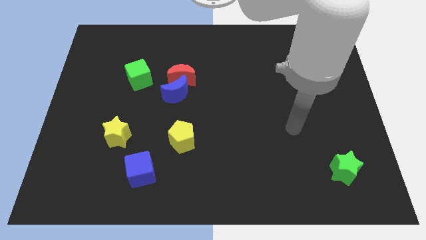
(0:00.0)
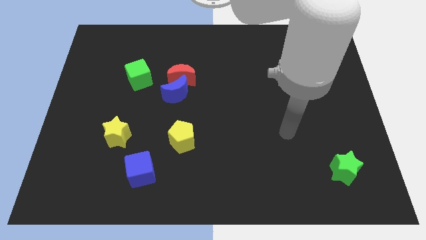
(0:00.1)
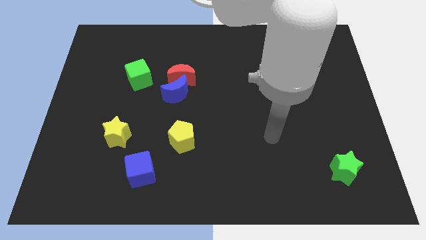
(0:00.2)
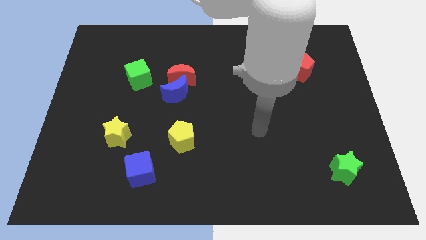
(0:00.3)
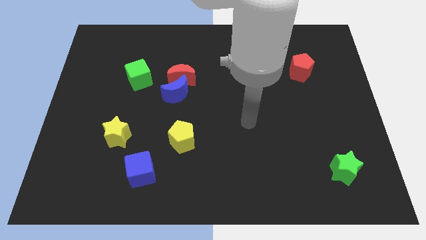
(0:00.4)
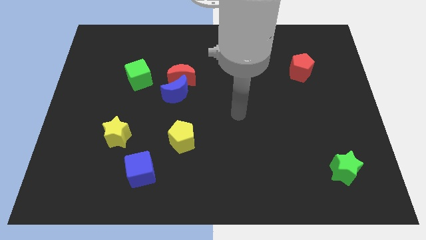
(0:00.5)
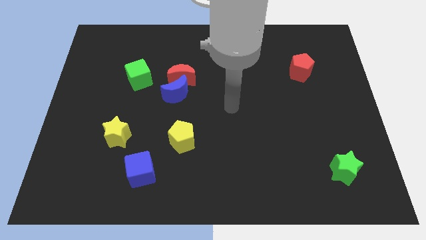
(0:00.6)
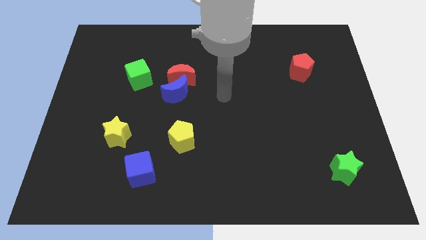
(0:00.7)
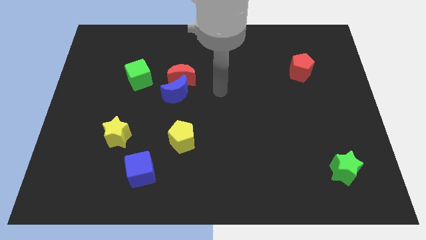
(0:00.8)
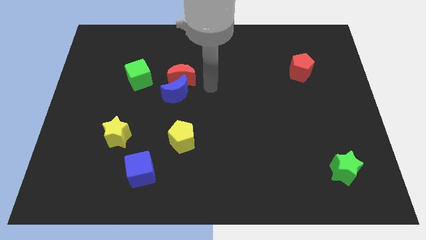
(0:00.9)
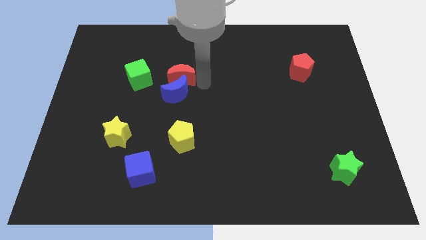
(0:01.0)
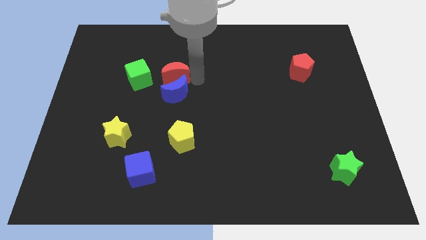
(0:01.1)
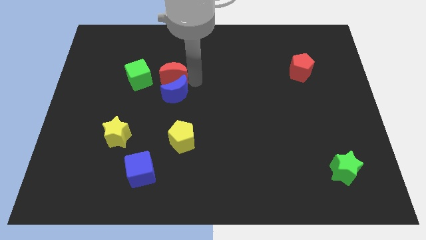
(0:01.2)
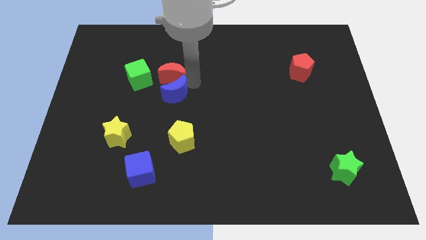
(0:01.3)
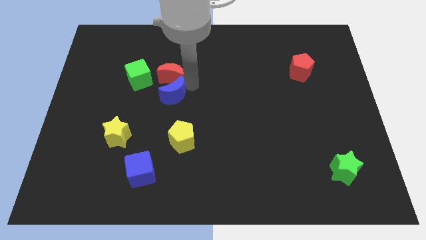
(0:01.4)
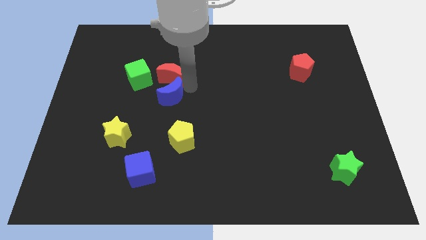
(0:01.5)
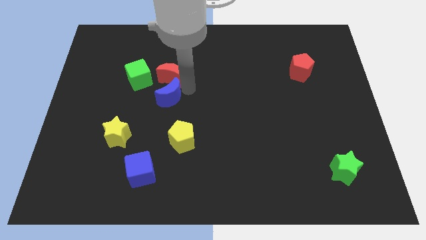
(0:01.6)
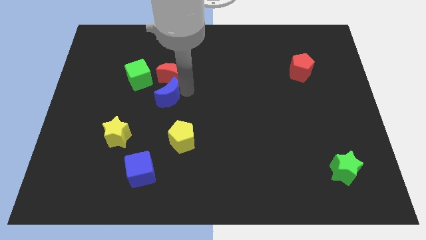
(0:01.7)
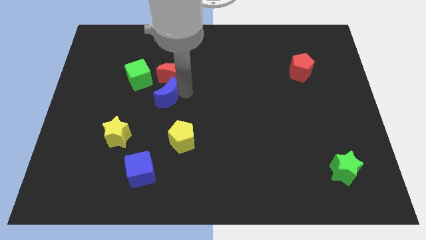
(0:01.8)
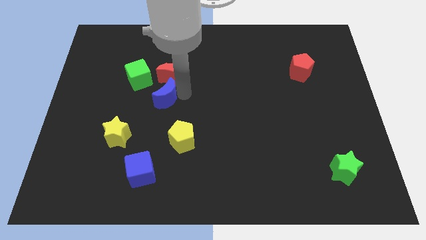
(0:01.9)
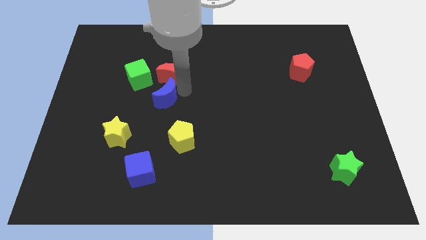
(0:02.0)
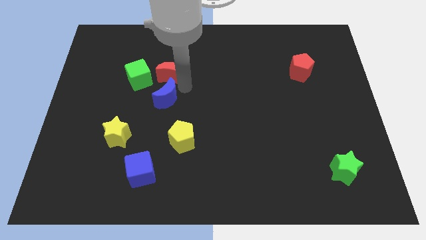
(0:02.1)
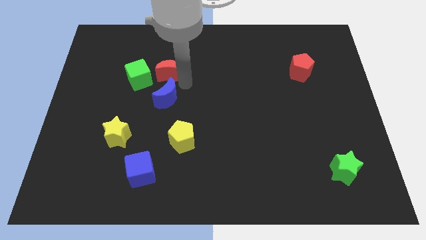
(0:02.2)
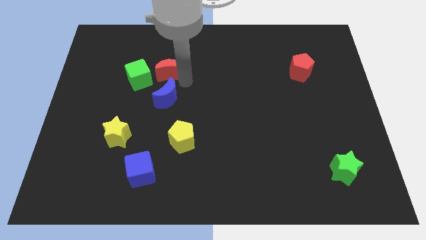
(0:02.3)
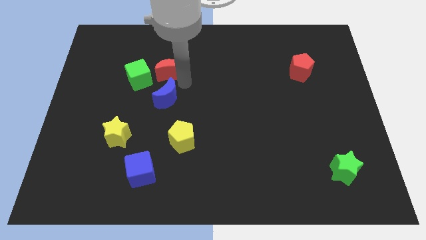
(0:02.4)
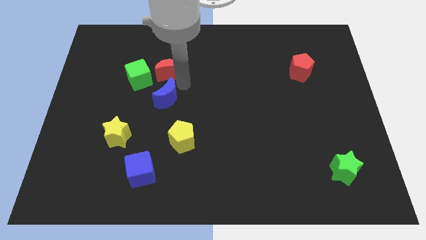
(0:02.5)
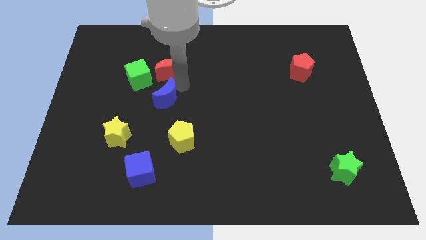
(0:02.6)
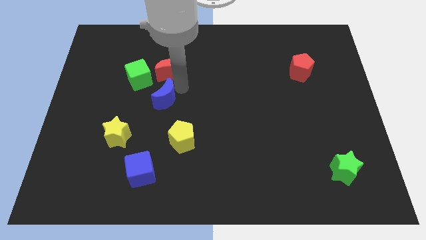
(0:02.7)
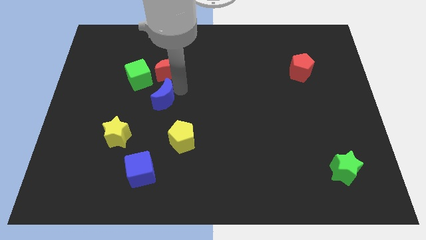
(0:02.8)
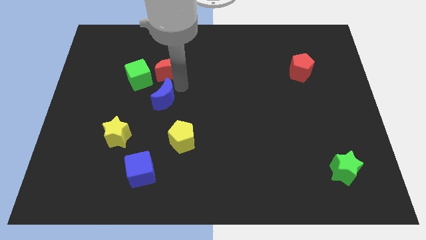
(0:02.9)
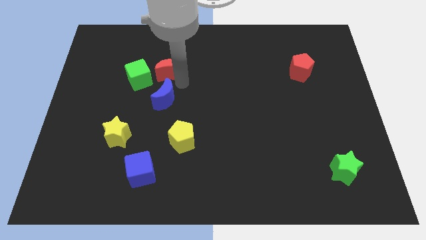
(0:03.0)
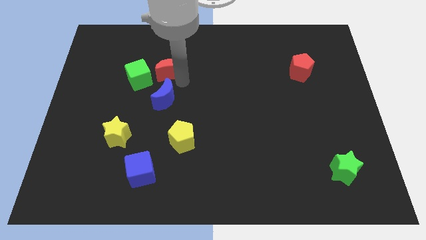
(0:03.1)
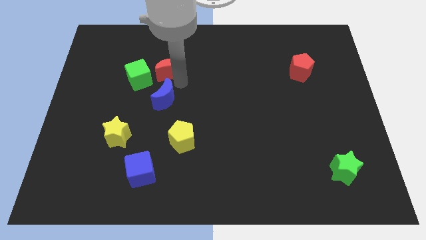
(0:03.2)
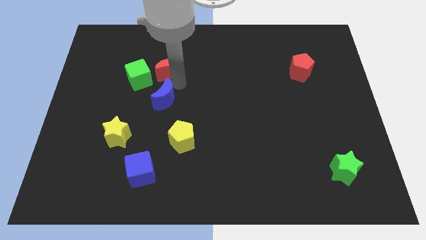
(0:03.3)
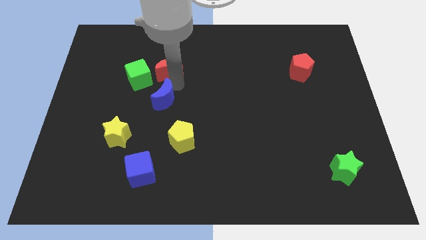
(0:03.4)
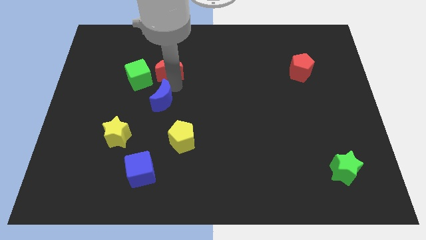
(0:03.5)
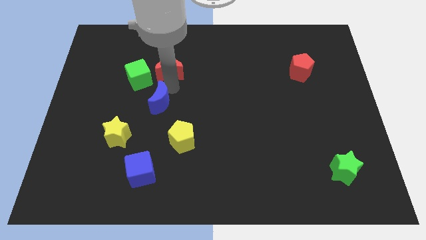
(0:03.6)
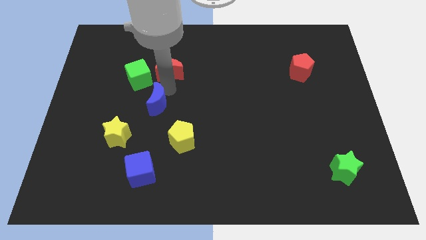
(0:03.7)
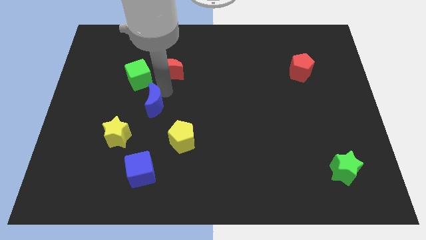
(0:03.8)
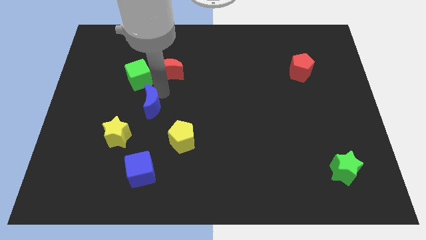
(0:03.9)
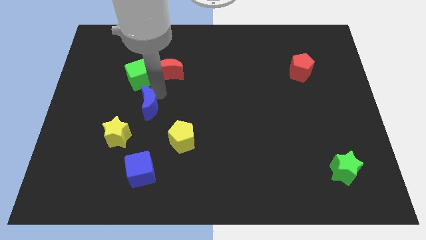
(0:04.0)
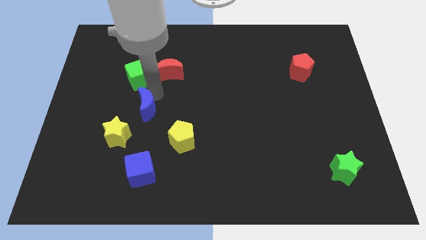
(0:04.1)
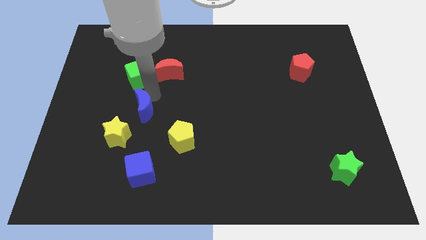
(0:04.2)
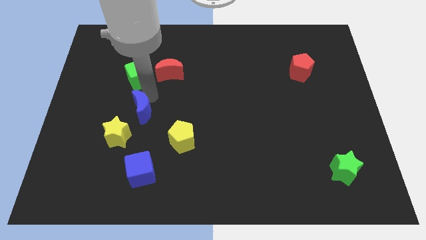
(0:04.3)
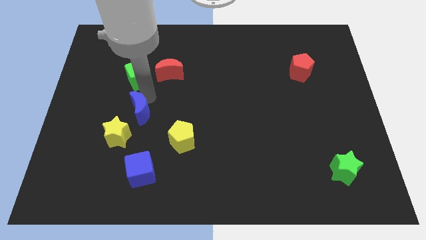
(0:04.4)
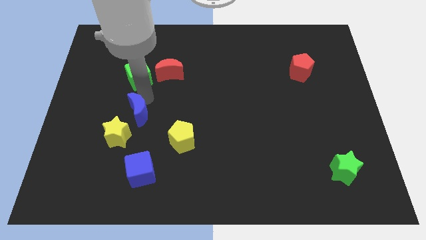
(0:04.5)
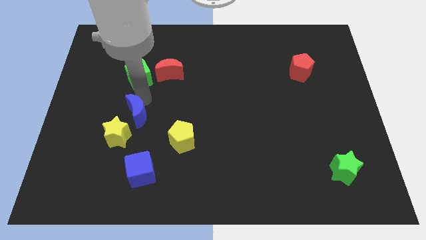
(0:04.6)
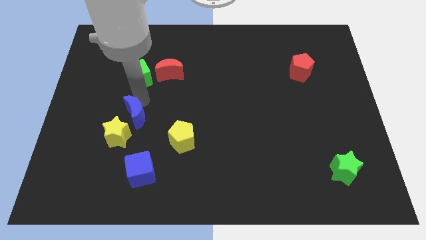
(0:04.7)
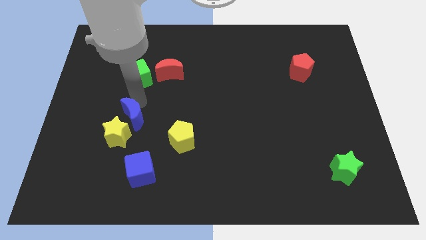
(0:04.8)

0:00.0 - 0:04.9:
put the blue moon close to the yellow star

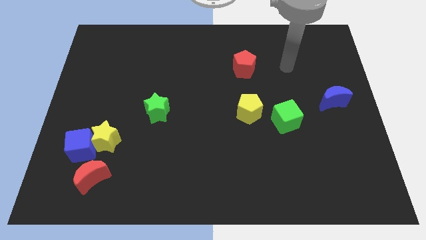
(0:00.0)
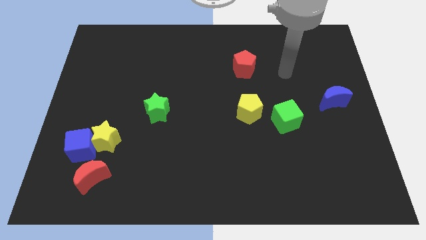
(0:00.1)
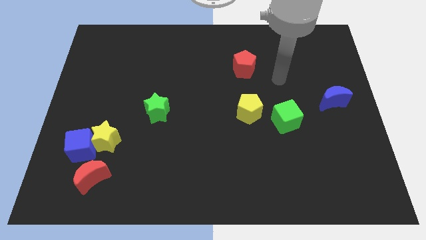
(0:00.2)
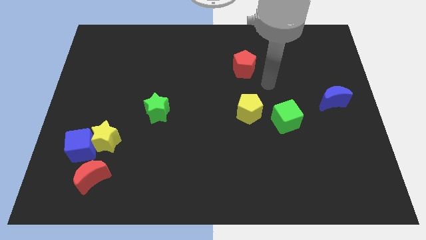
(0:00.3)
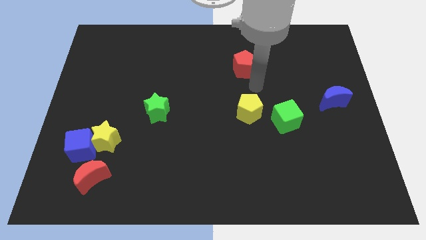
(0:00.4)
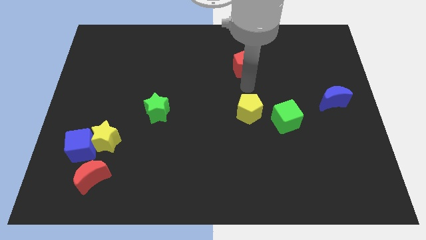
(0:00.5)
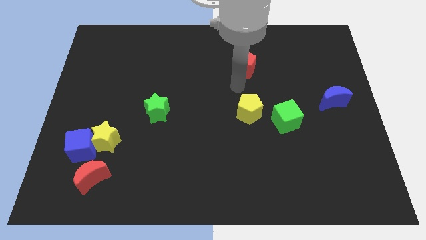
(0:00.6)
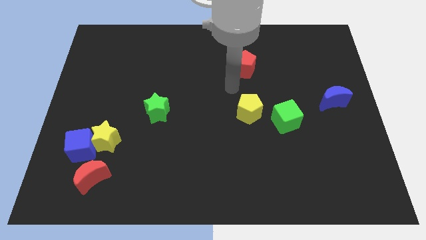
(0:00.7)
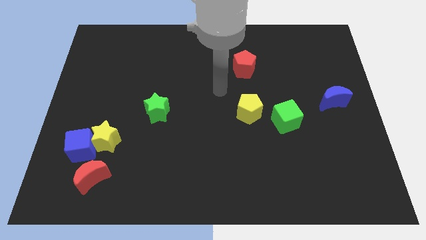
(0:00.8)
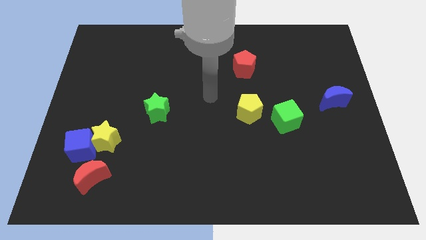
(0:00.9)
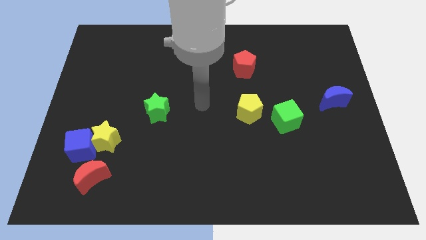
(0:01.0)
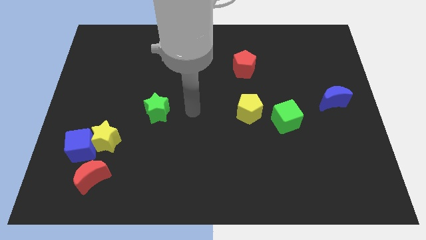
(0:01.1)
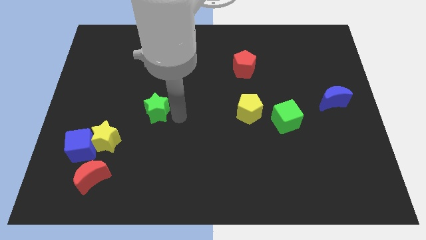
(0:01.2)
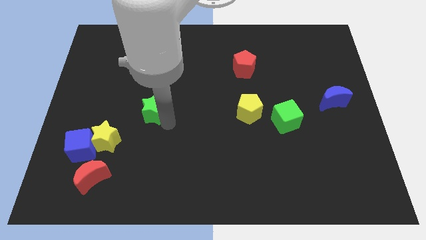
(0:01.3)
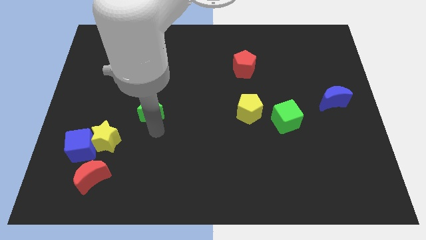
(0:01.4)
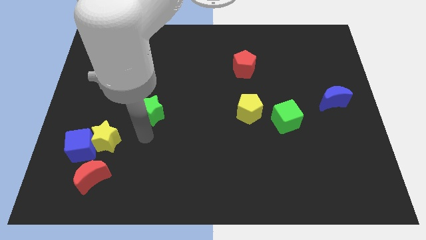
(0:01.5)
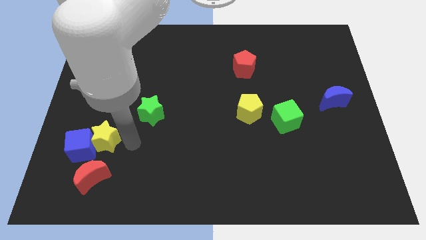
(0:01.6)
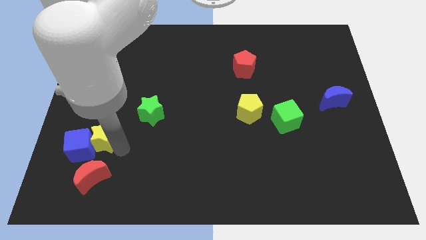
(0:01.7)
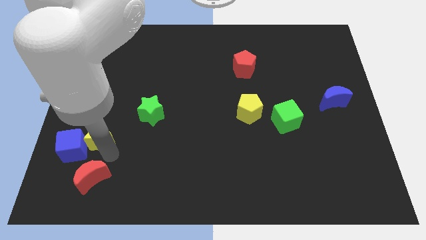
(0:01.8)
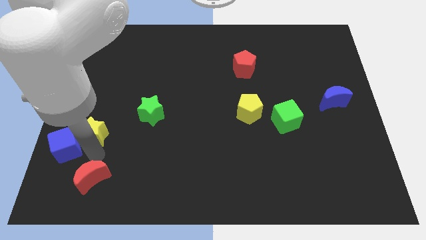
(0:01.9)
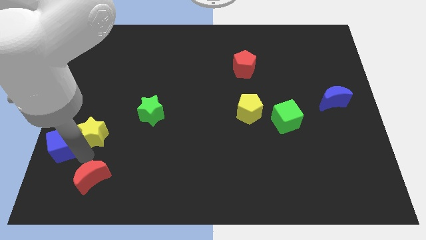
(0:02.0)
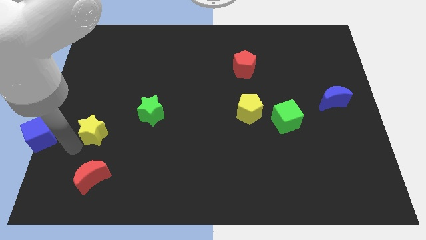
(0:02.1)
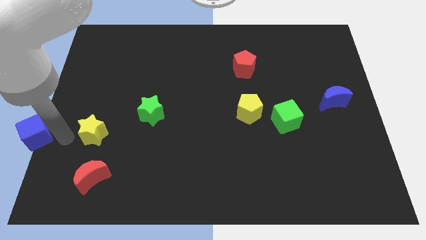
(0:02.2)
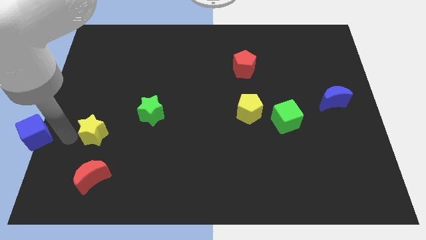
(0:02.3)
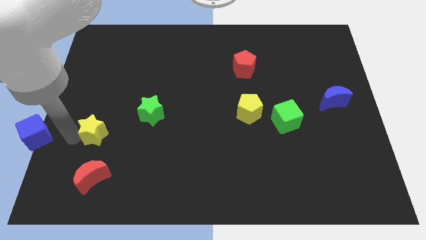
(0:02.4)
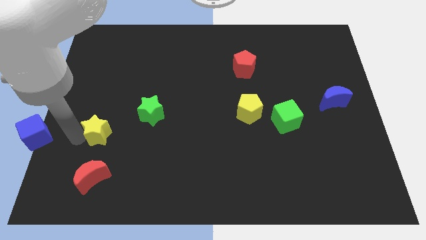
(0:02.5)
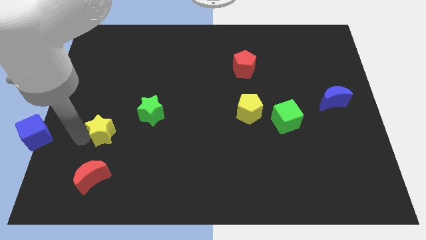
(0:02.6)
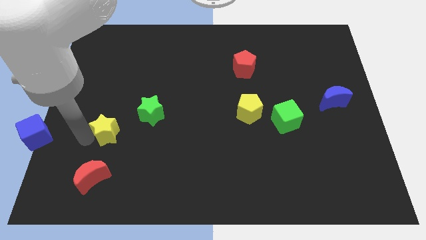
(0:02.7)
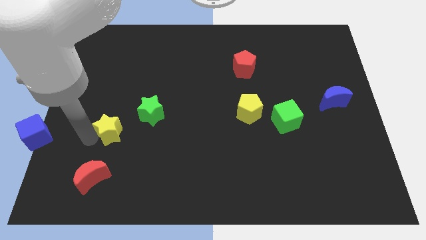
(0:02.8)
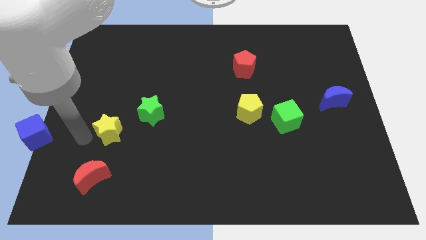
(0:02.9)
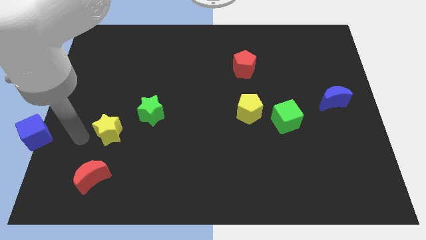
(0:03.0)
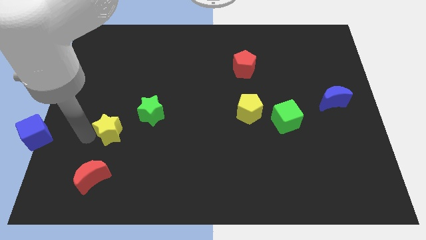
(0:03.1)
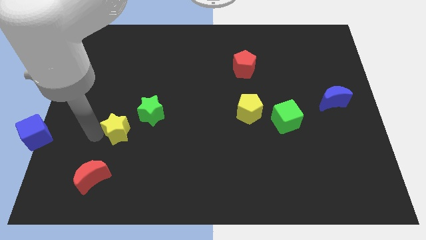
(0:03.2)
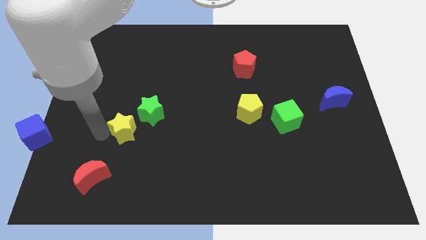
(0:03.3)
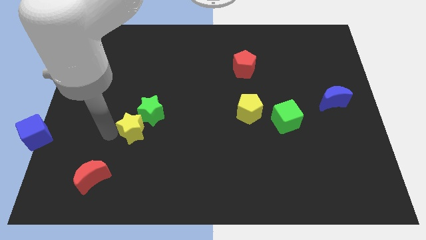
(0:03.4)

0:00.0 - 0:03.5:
push the yellow star to the green star
